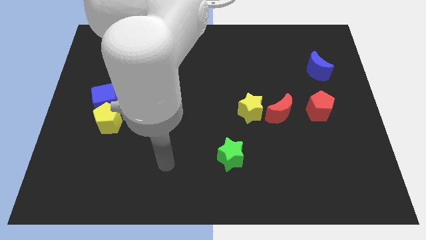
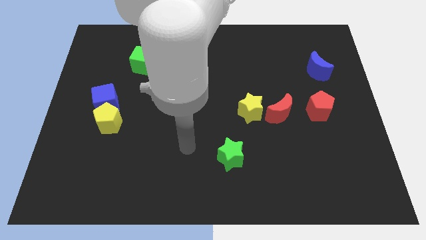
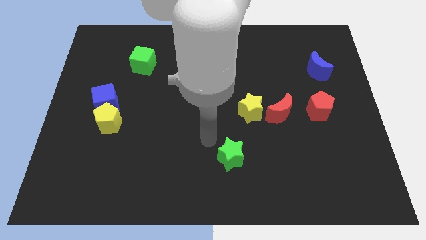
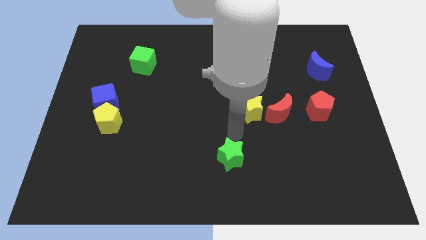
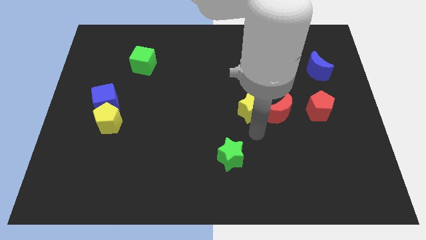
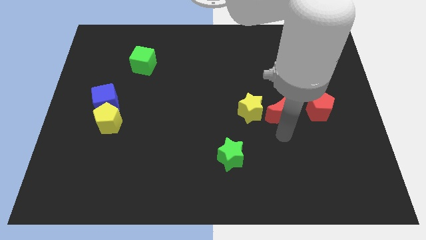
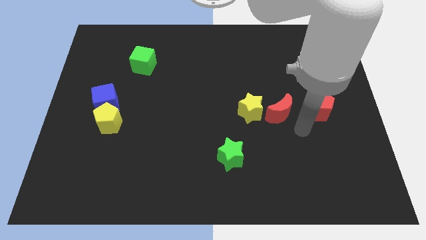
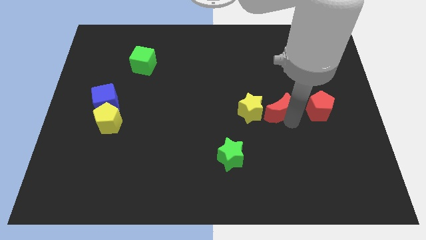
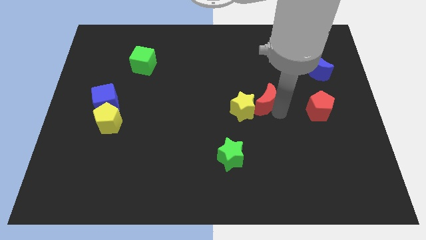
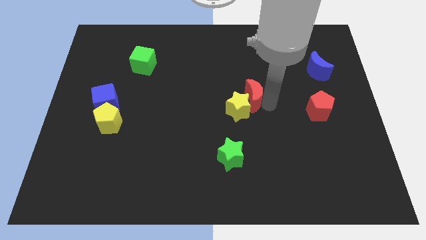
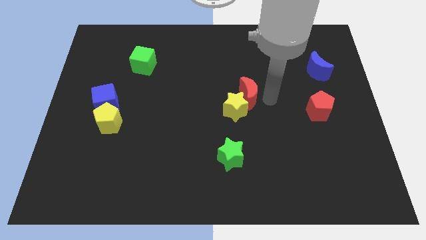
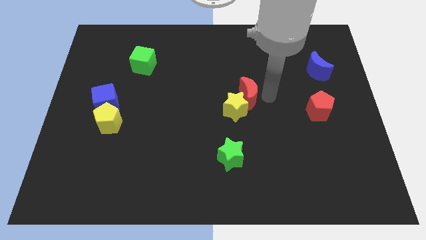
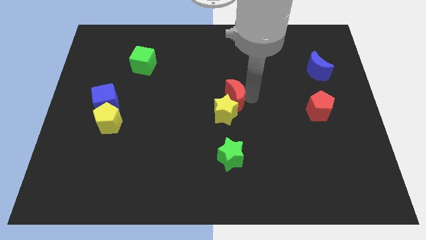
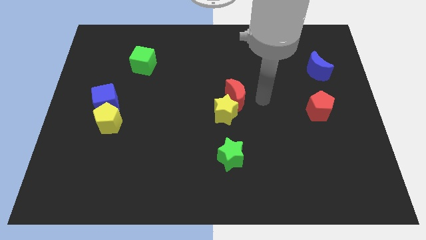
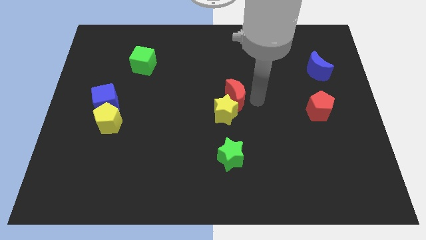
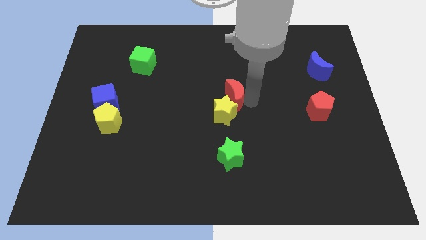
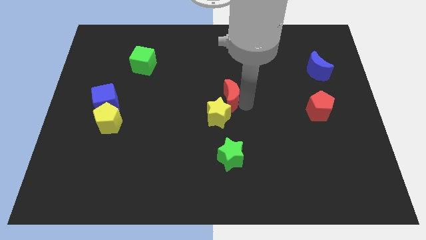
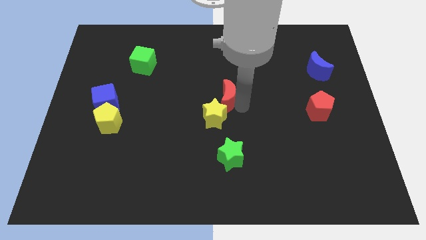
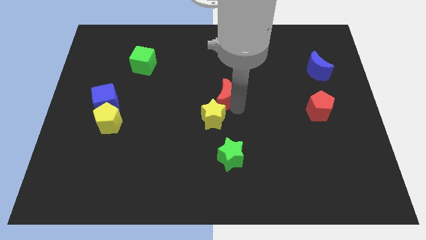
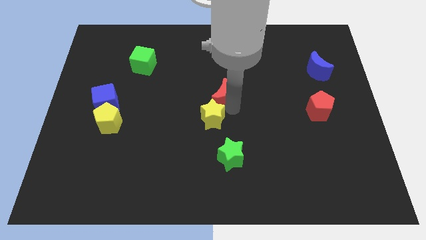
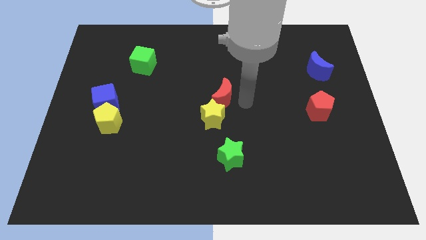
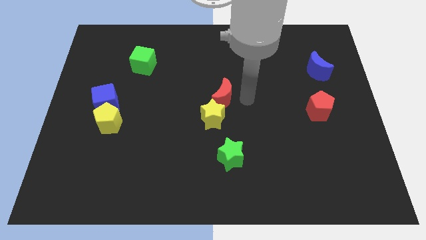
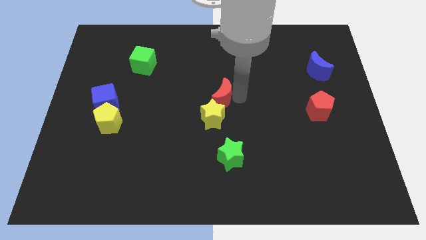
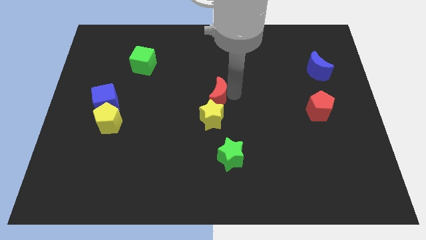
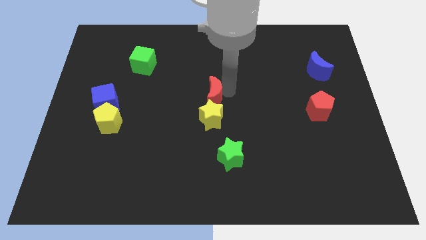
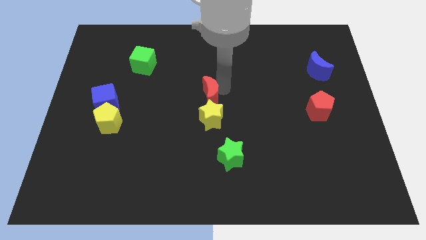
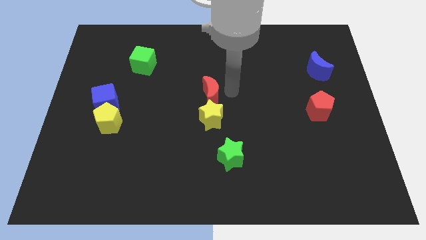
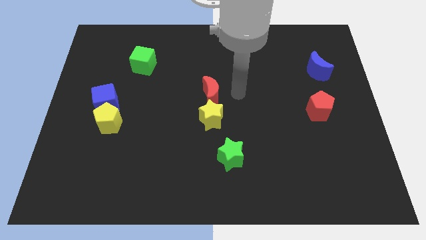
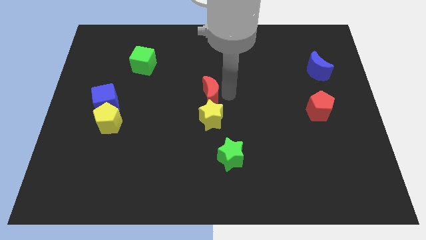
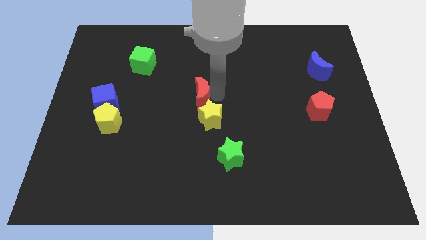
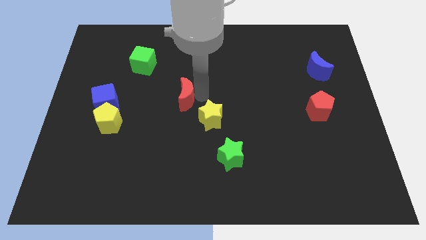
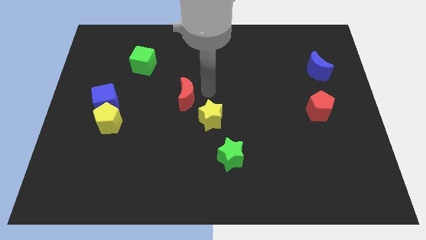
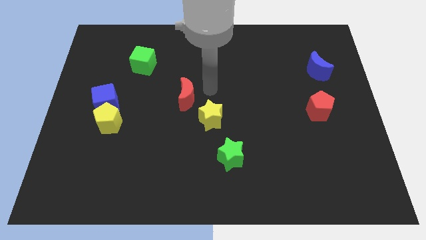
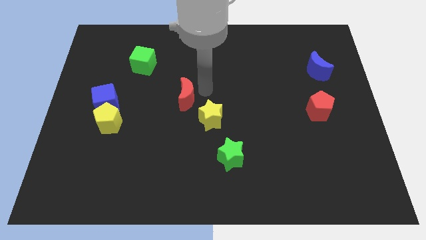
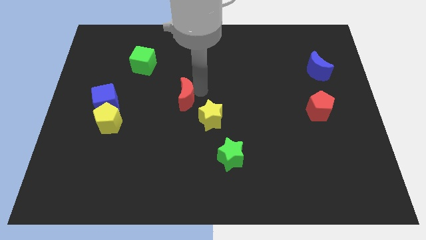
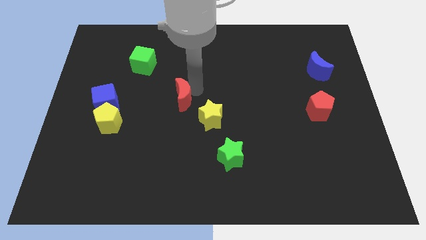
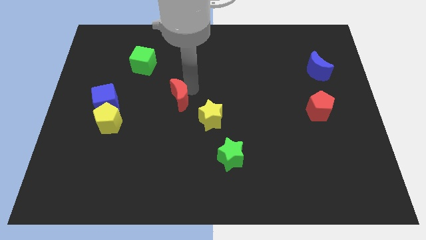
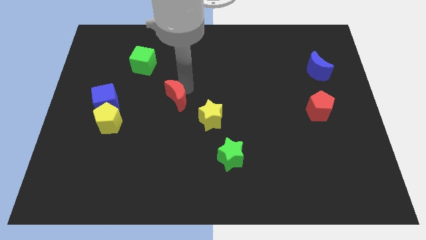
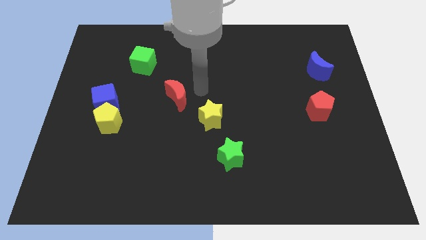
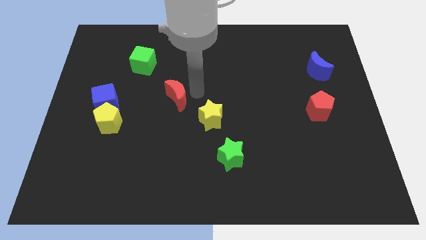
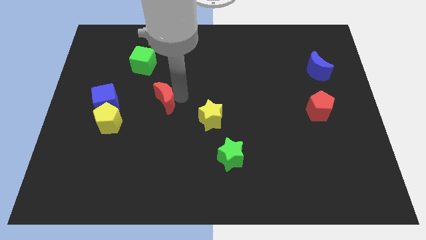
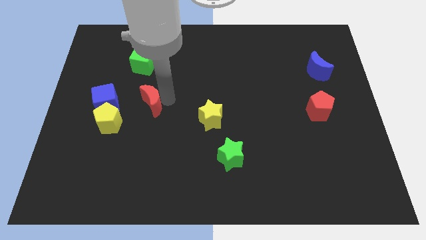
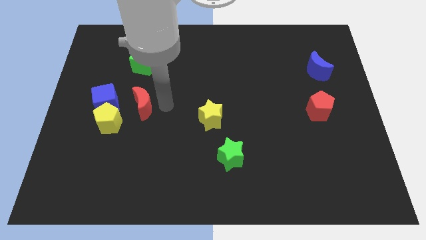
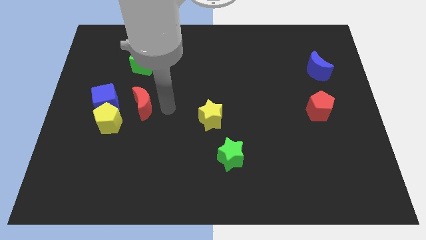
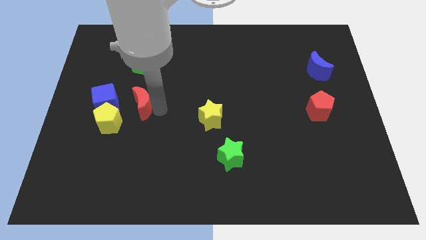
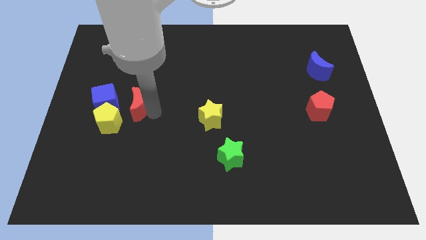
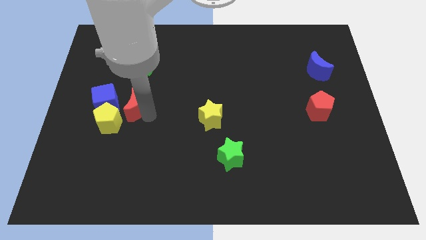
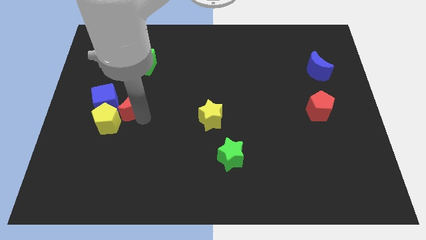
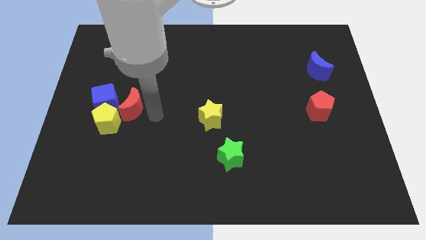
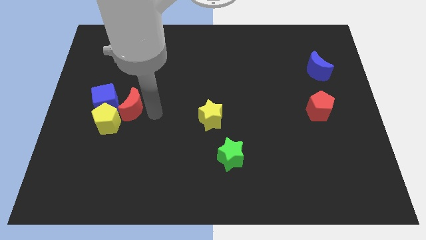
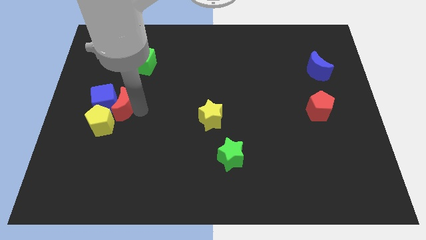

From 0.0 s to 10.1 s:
move the red moon towards the blue cube

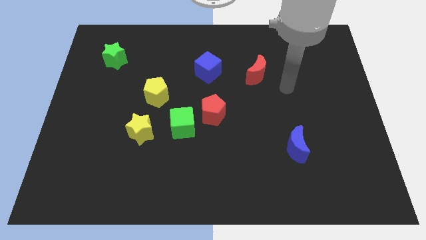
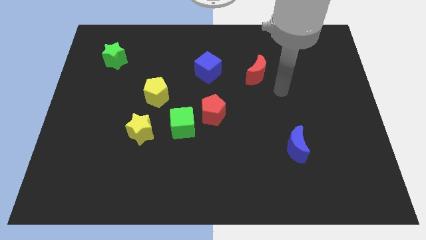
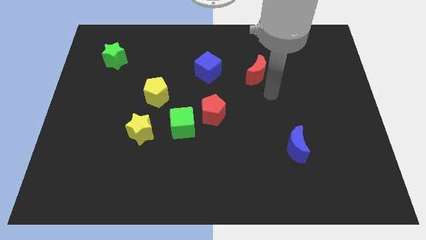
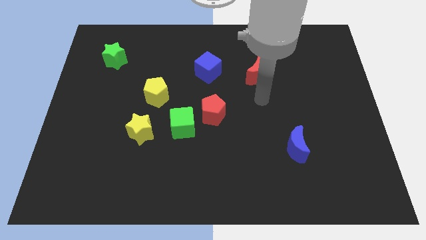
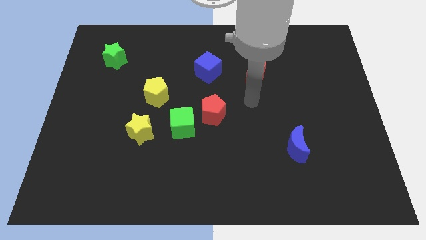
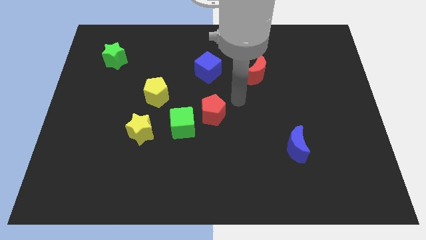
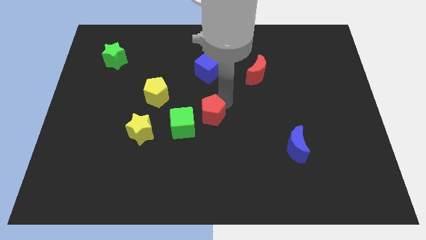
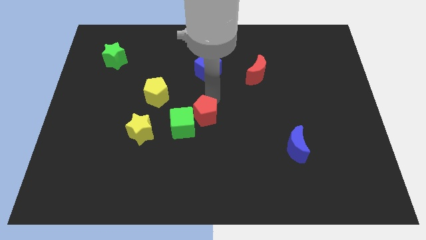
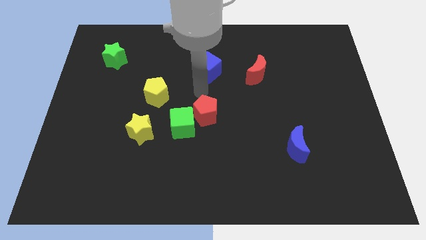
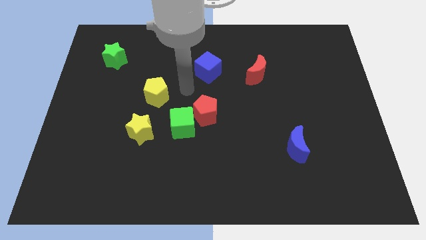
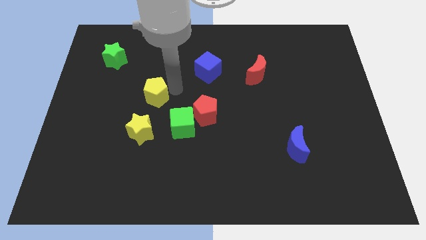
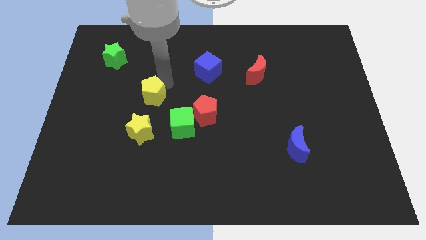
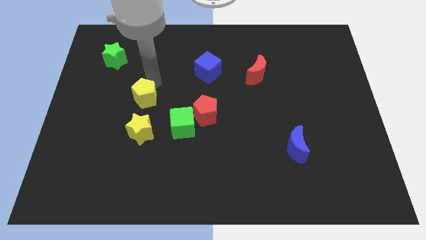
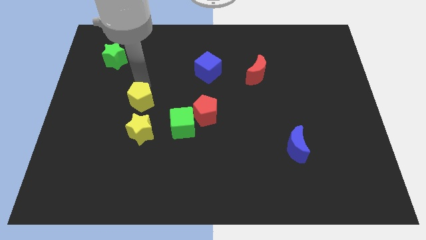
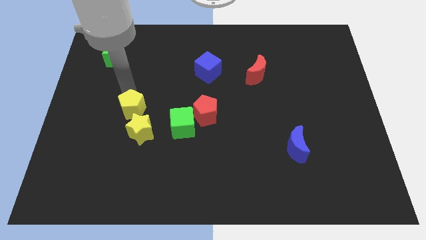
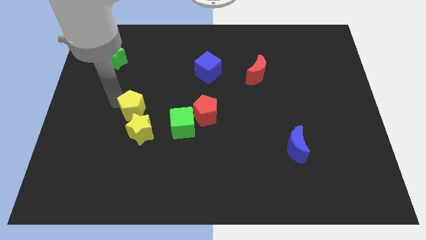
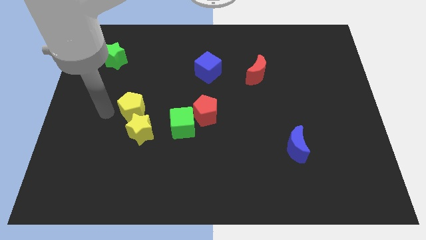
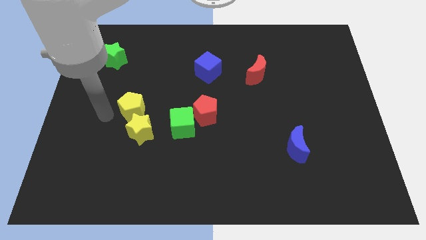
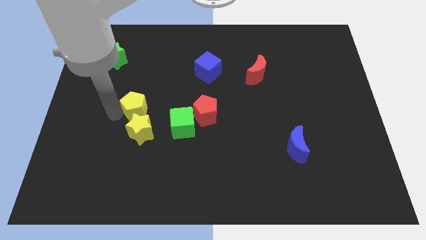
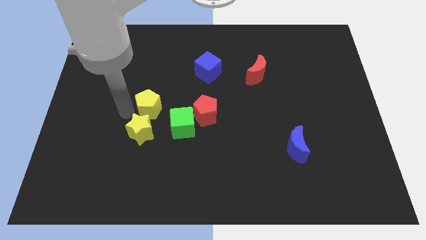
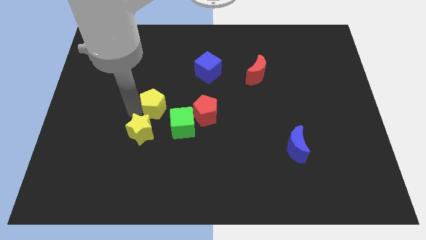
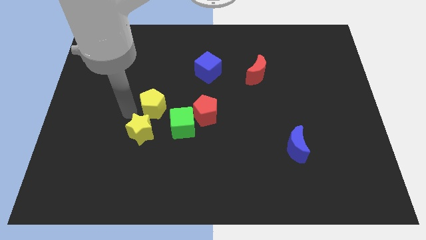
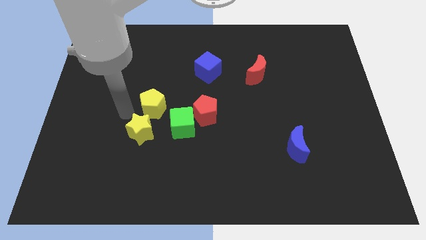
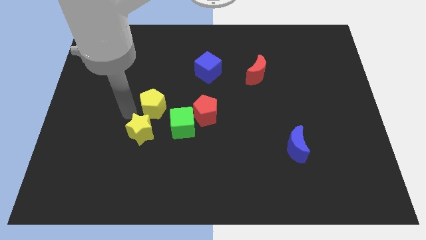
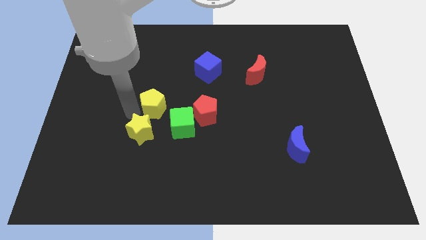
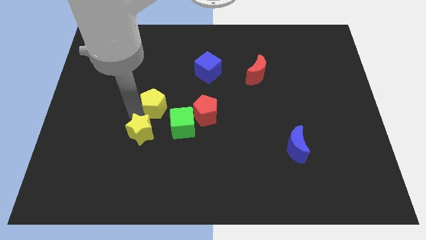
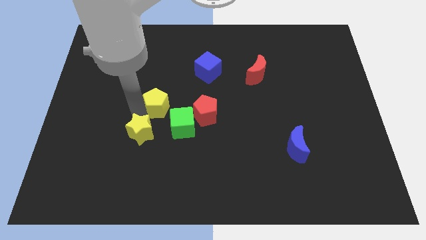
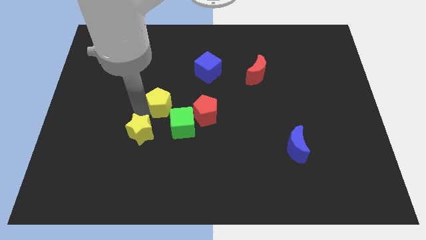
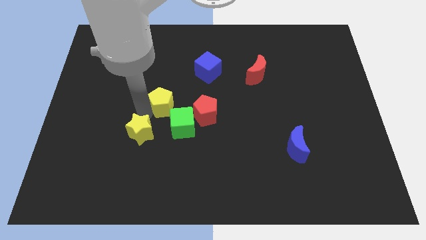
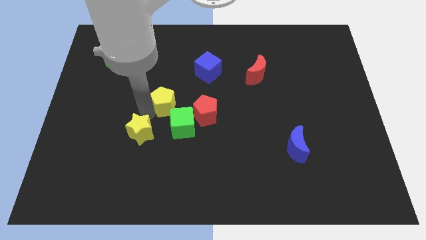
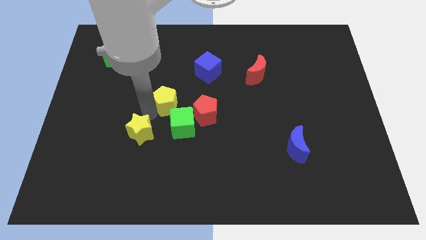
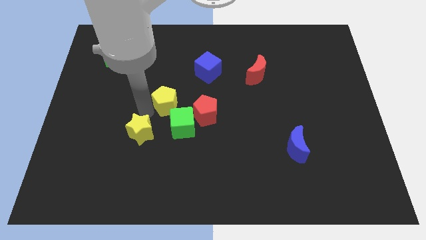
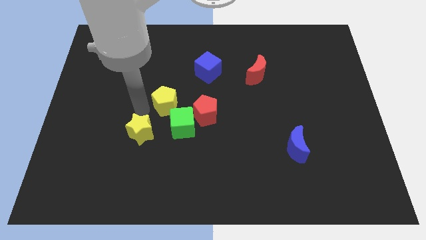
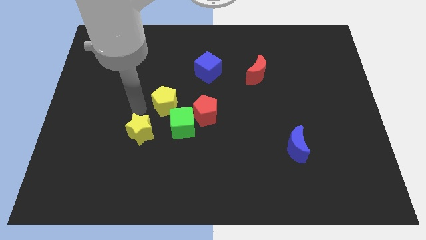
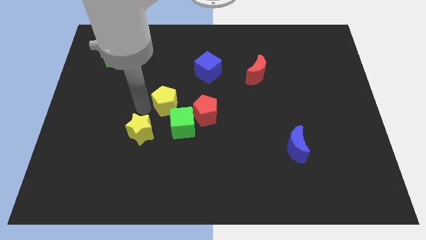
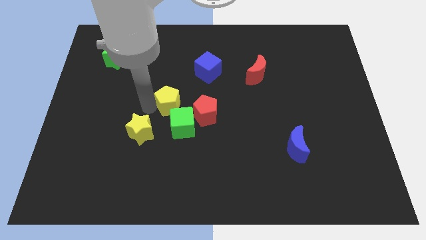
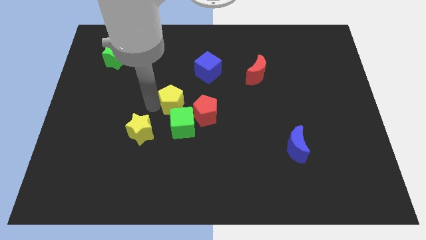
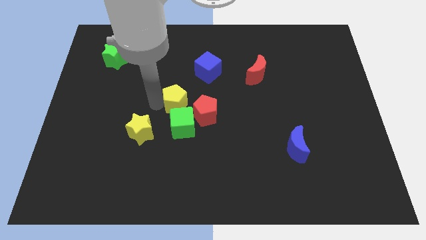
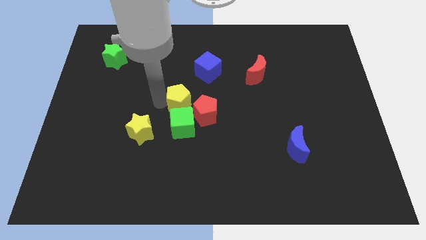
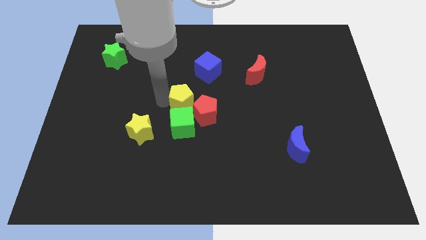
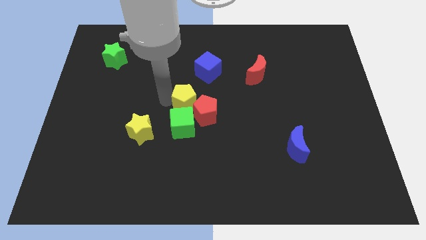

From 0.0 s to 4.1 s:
move the yellow pentagon to the red pentagon
